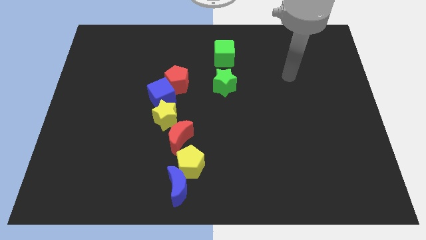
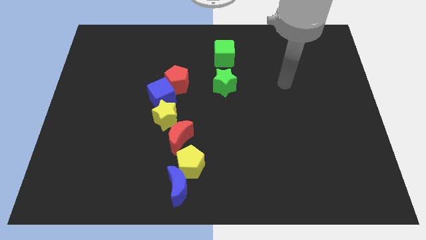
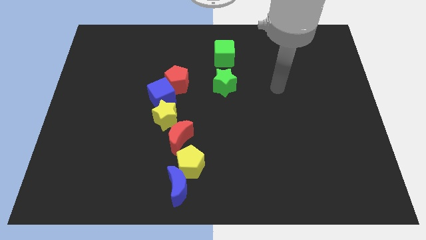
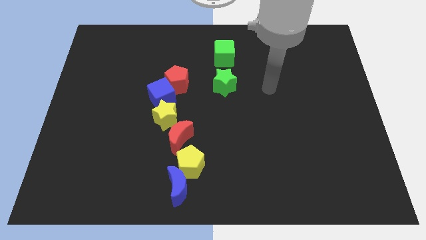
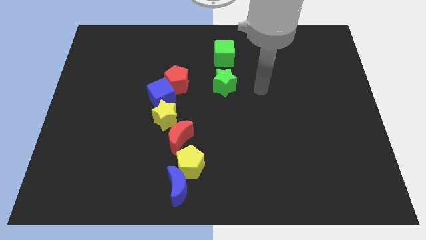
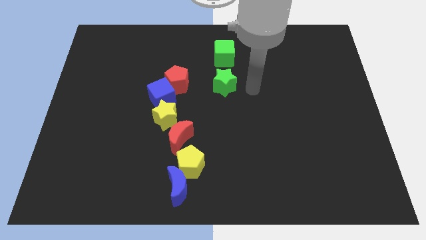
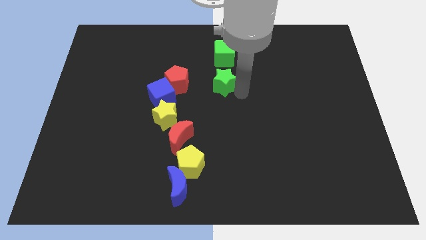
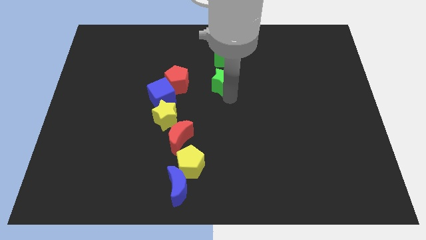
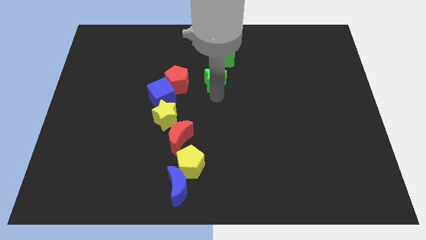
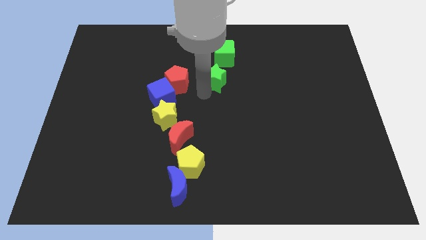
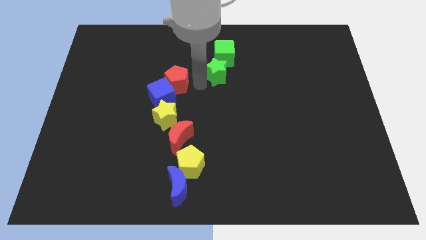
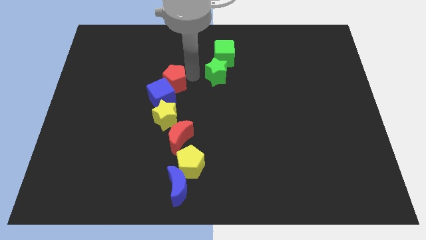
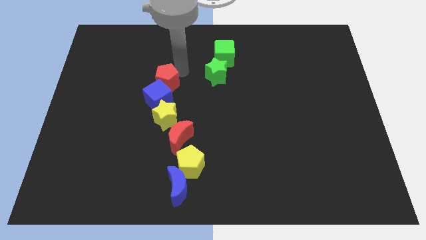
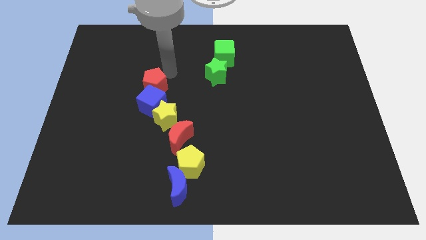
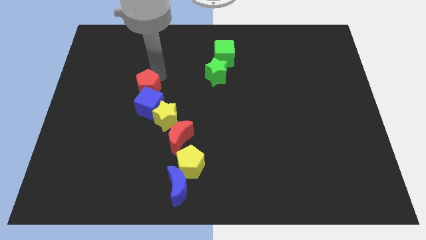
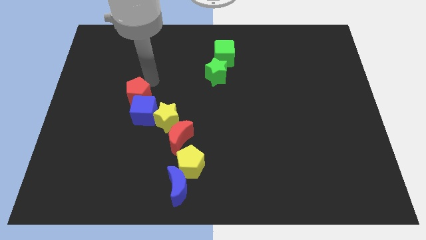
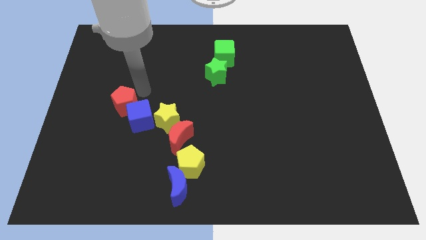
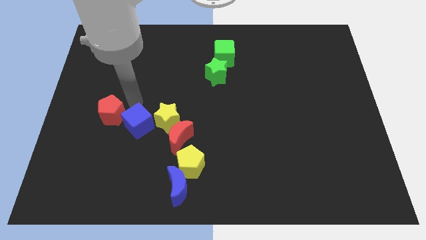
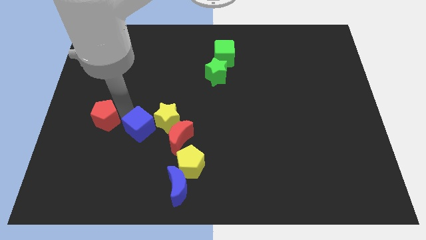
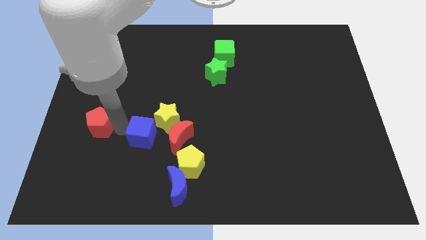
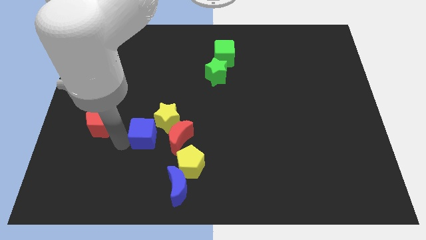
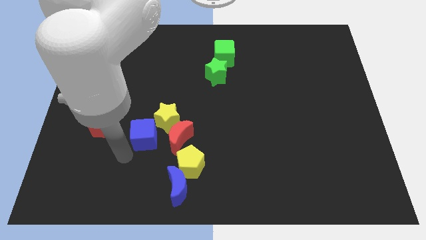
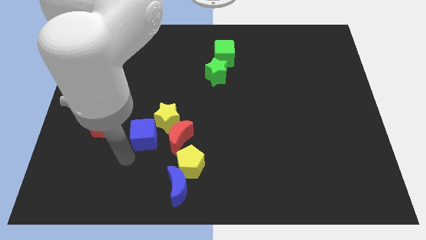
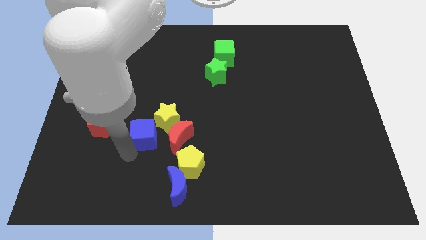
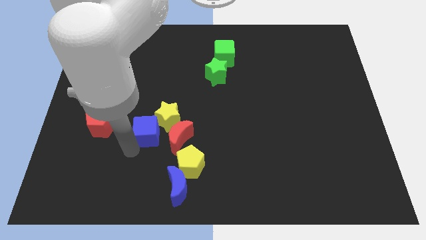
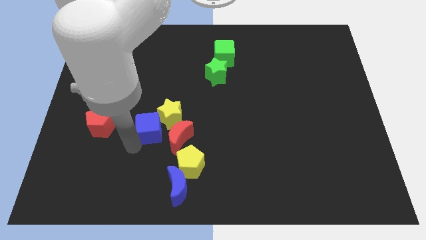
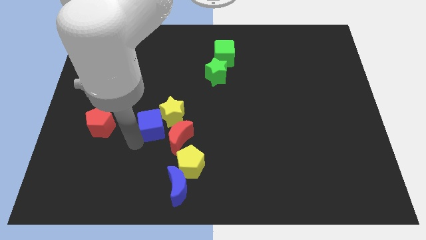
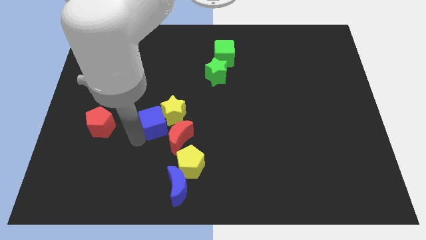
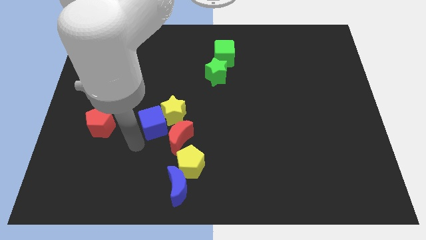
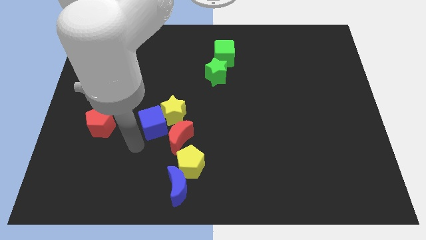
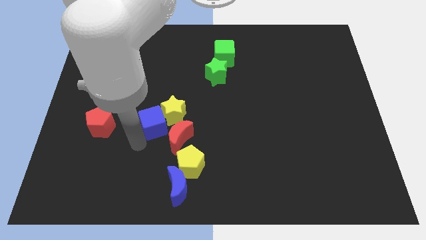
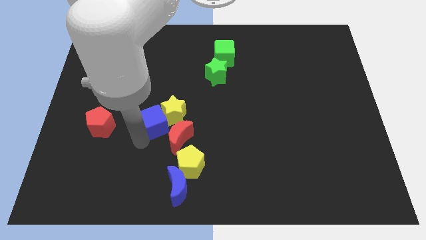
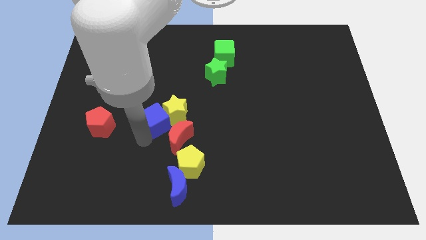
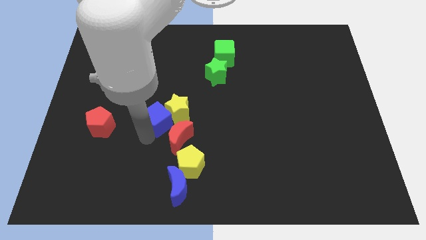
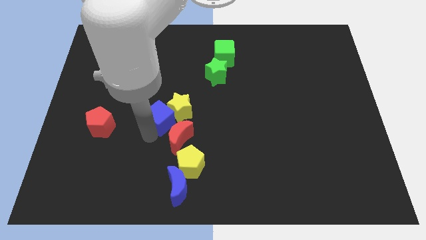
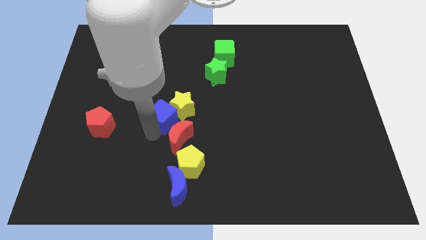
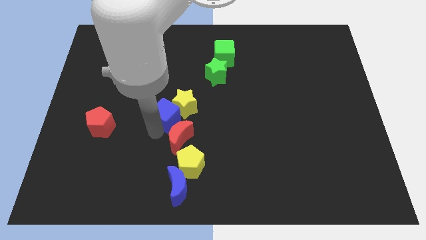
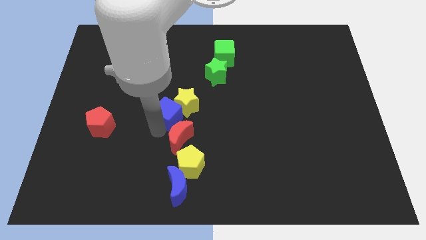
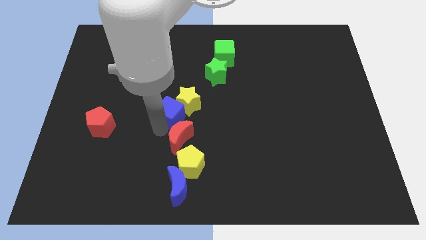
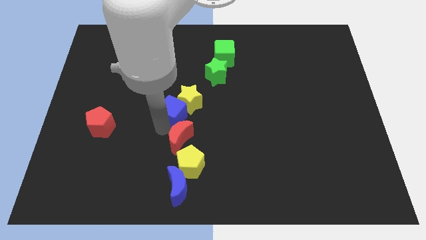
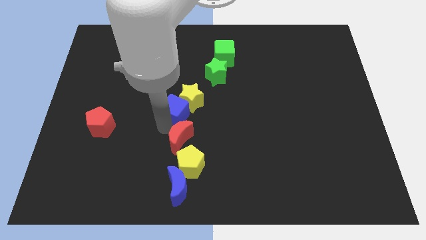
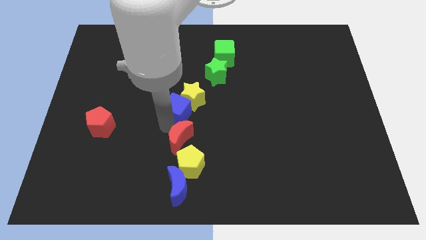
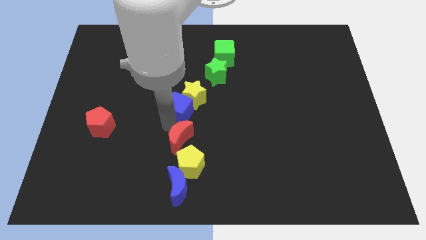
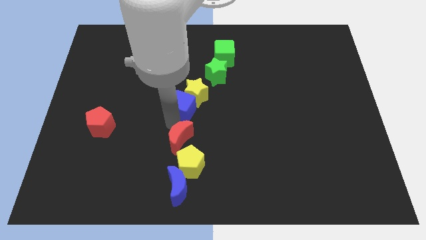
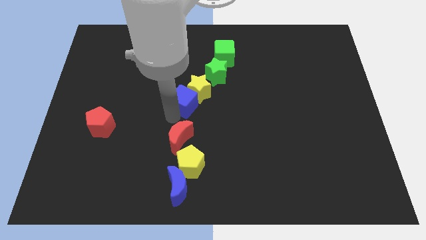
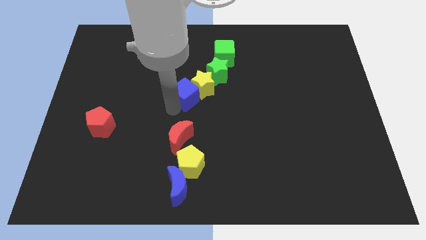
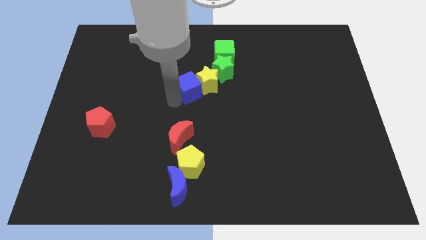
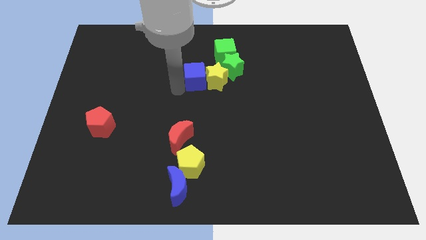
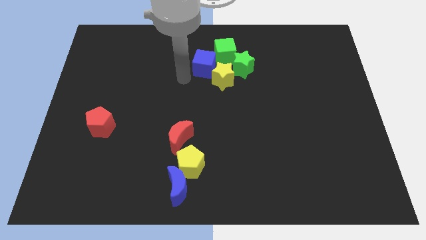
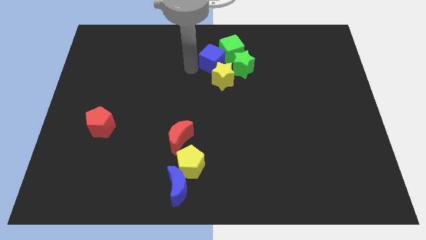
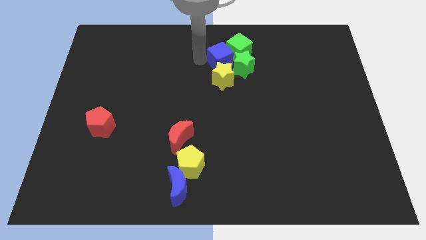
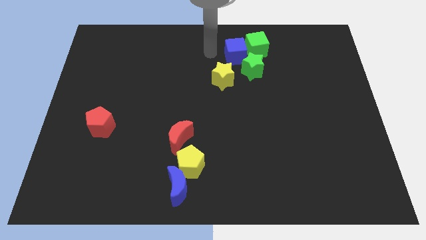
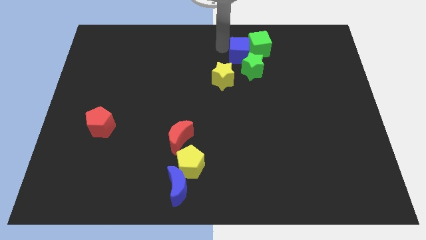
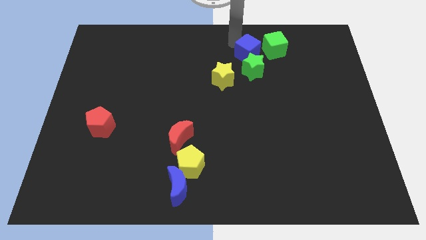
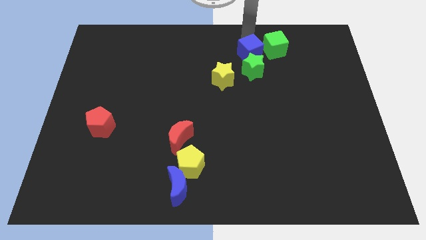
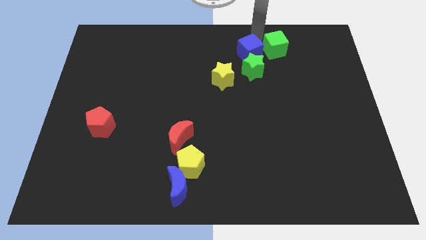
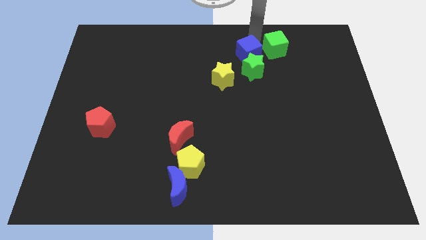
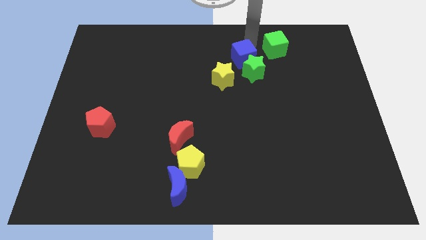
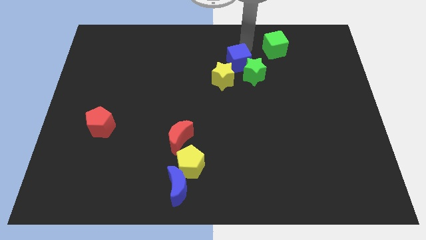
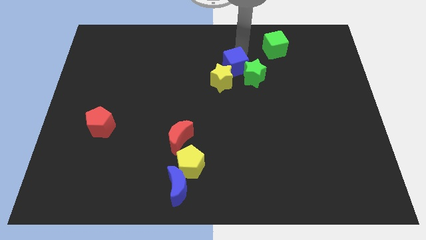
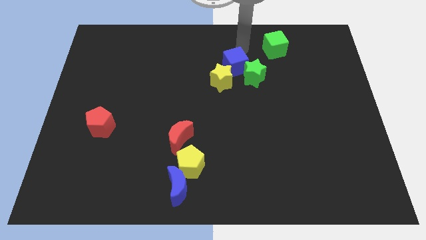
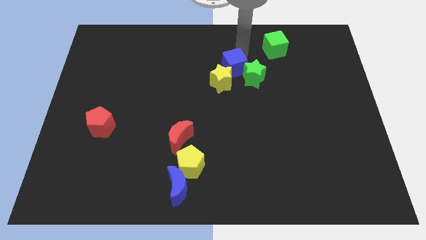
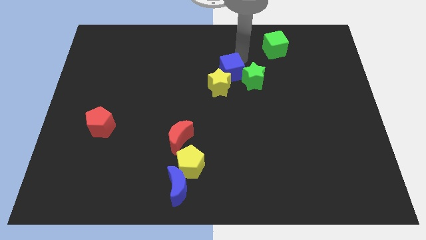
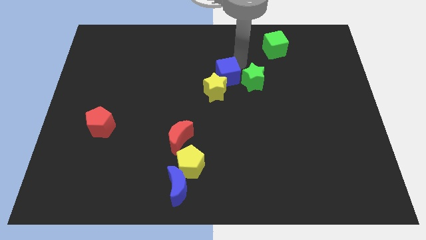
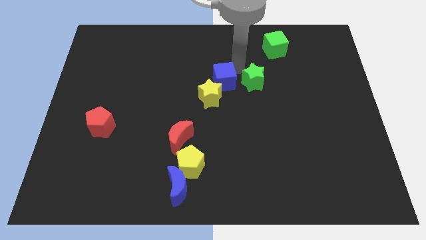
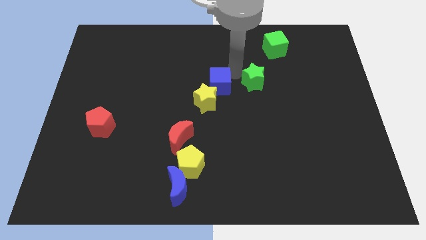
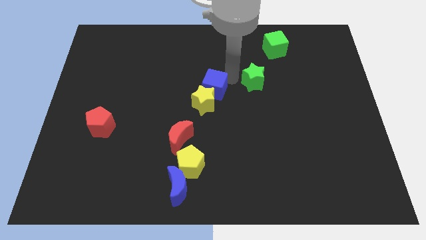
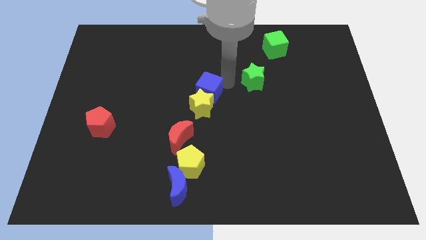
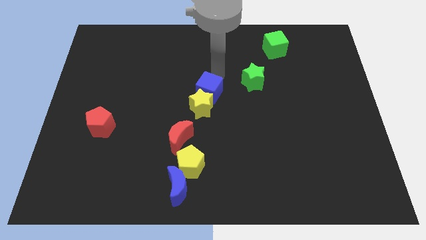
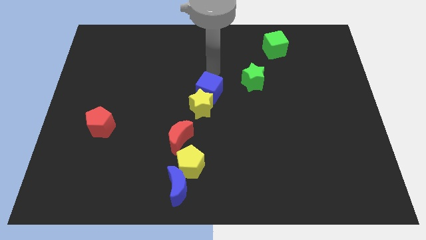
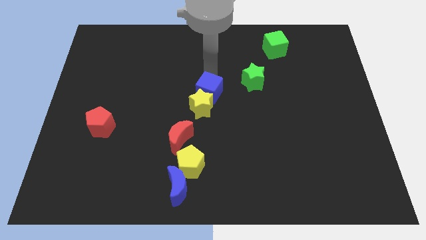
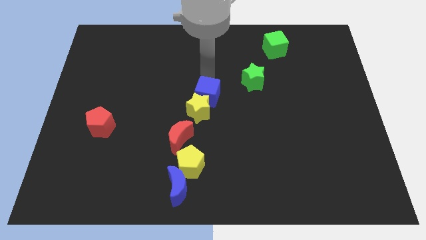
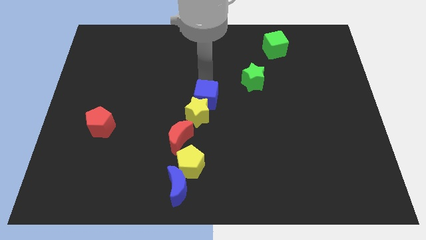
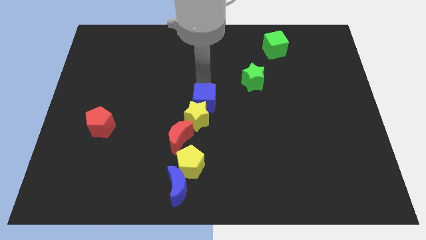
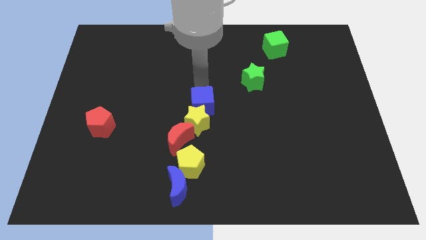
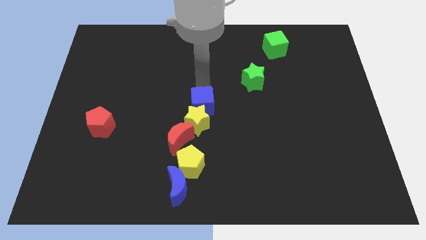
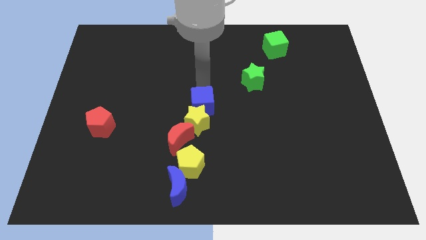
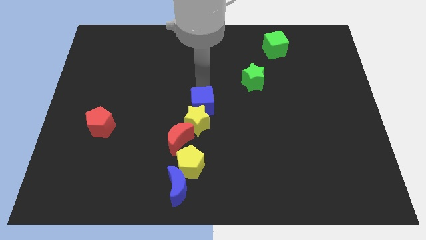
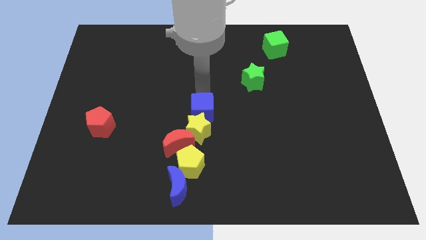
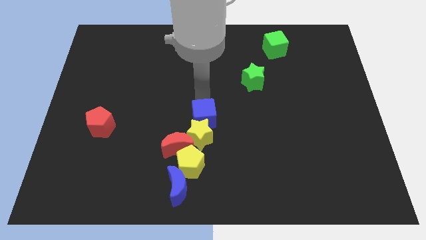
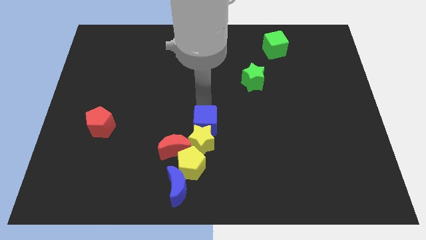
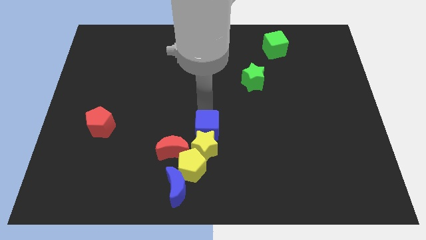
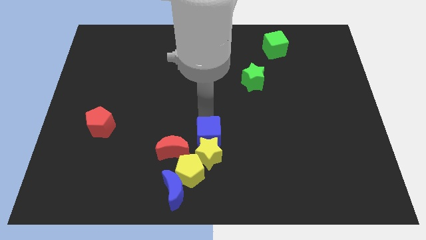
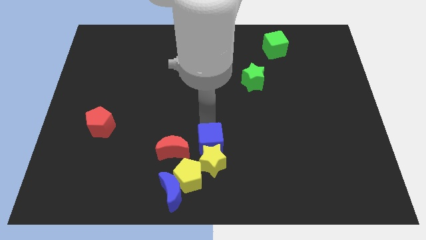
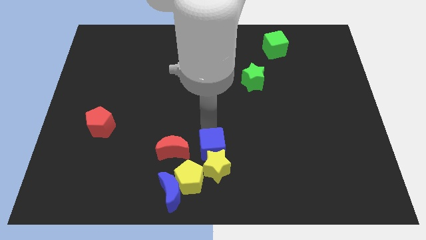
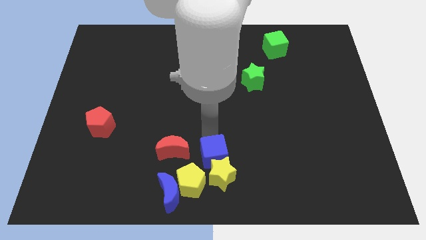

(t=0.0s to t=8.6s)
move the blue cube to the bottom side
